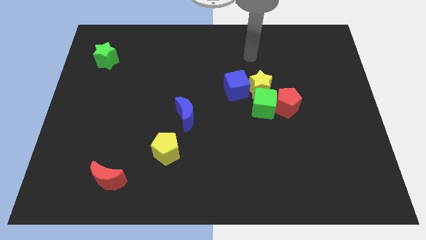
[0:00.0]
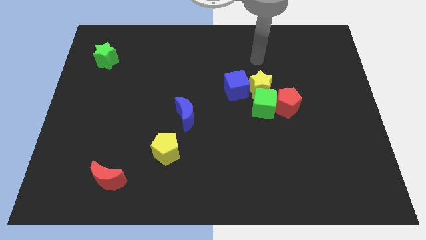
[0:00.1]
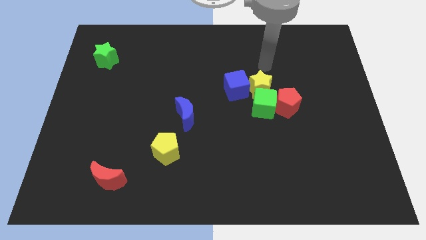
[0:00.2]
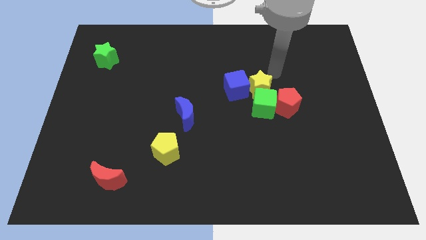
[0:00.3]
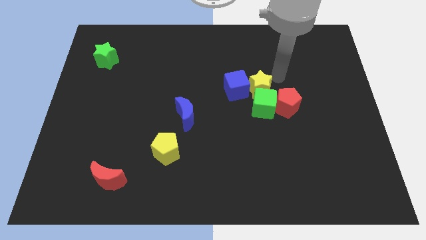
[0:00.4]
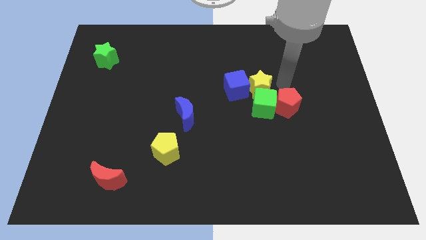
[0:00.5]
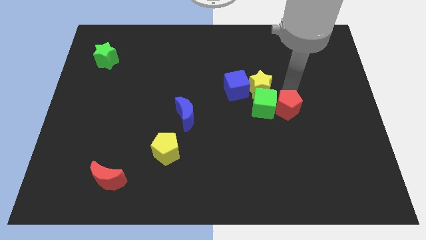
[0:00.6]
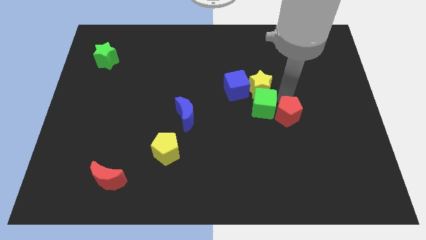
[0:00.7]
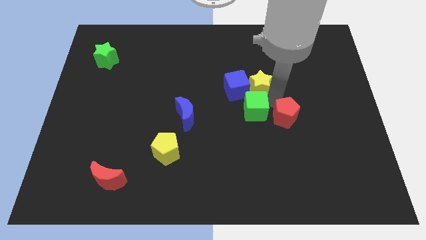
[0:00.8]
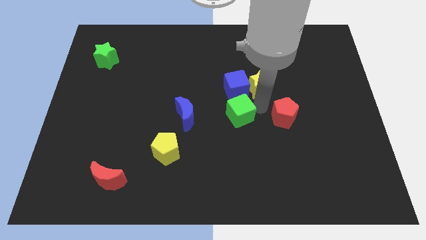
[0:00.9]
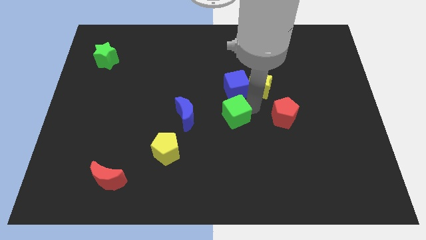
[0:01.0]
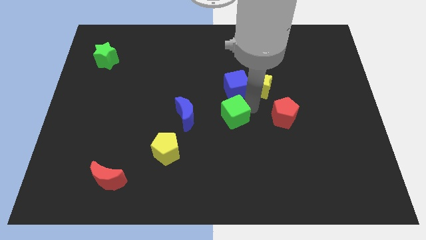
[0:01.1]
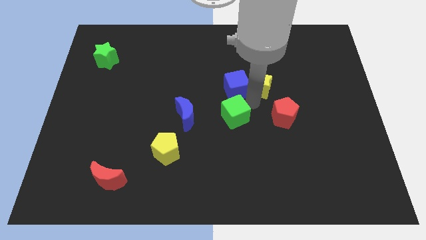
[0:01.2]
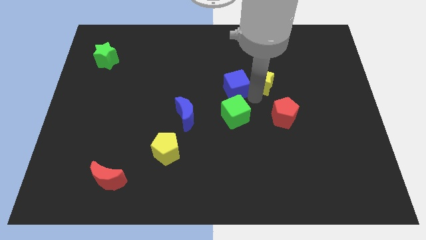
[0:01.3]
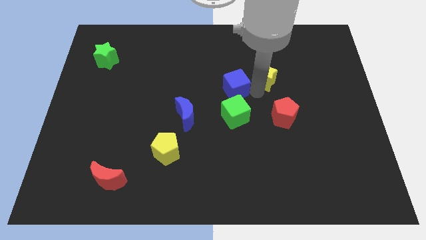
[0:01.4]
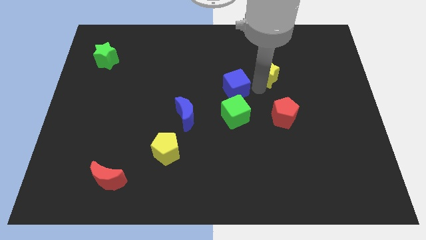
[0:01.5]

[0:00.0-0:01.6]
pull the yellow star apart from the clump

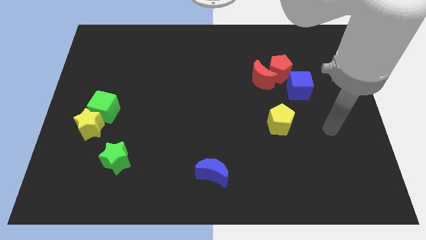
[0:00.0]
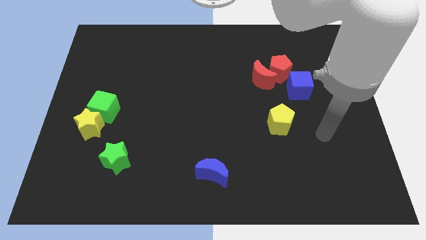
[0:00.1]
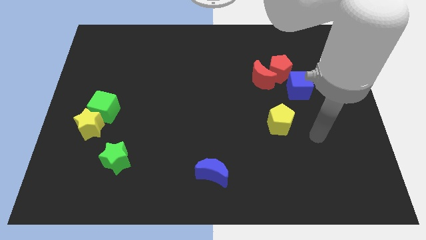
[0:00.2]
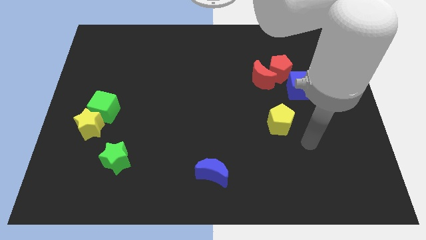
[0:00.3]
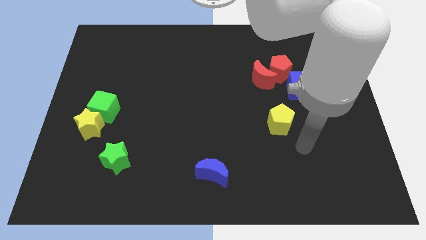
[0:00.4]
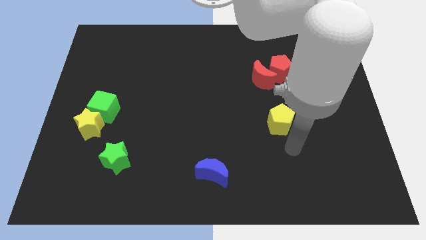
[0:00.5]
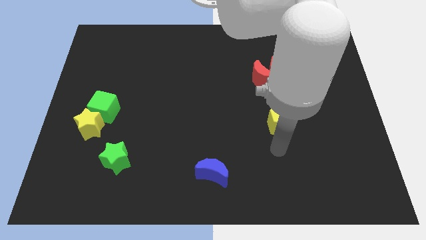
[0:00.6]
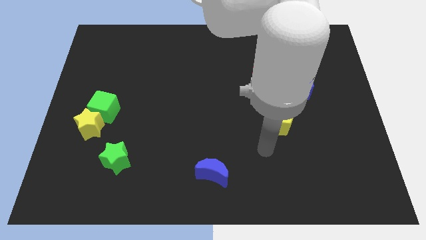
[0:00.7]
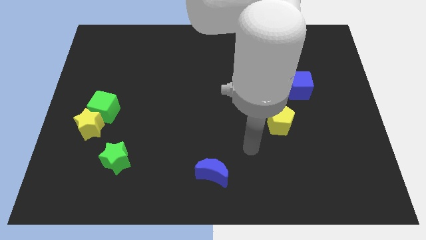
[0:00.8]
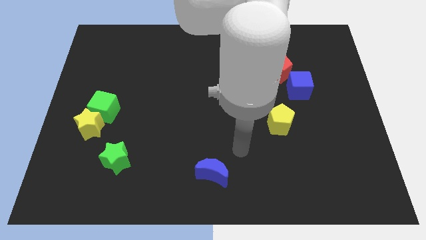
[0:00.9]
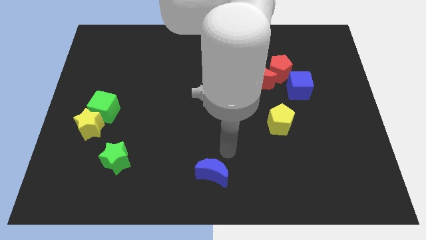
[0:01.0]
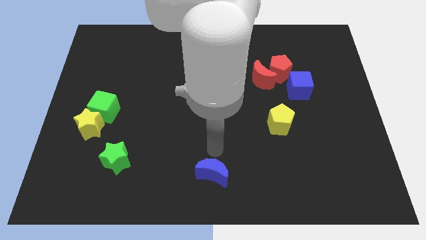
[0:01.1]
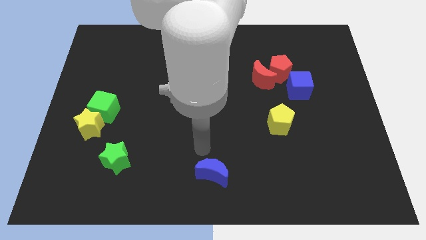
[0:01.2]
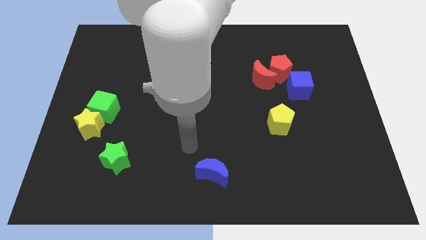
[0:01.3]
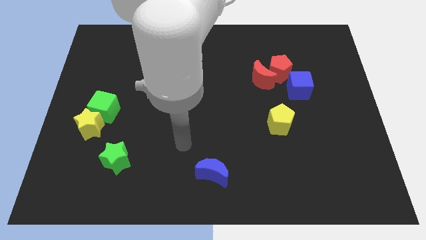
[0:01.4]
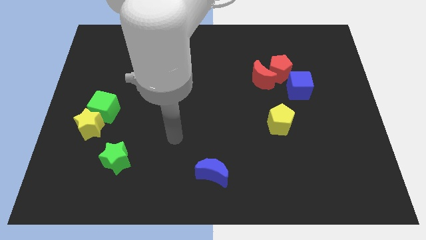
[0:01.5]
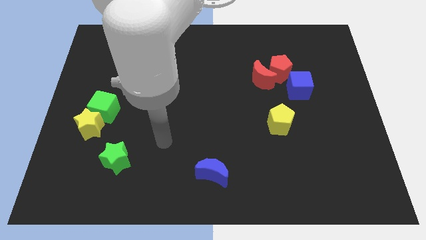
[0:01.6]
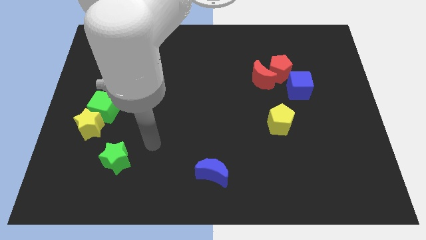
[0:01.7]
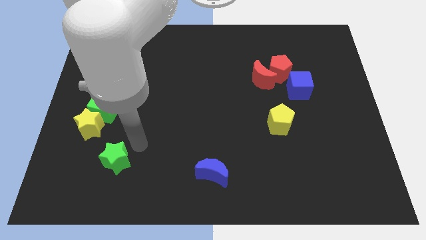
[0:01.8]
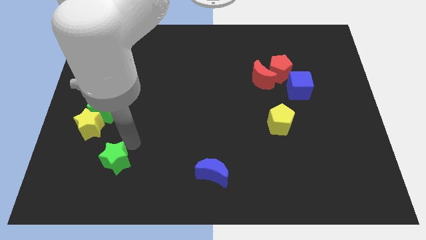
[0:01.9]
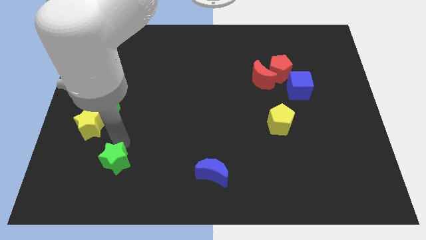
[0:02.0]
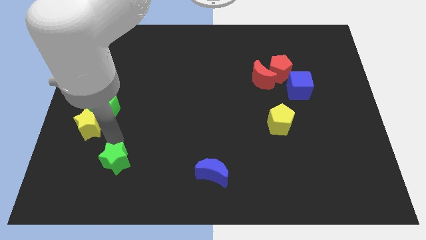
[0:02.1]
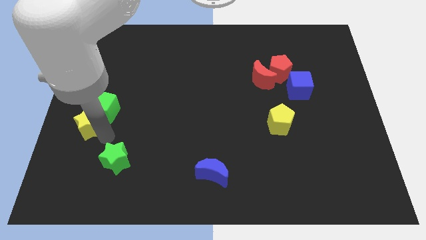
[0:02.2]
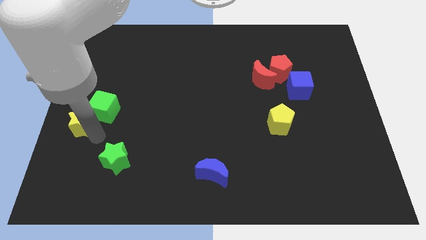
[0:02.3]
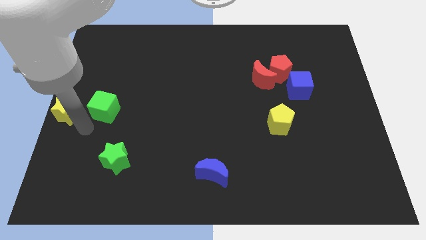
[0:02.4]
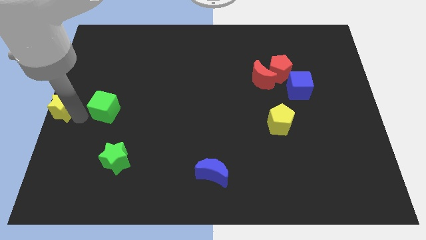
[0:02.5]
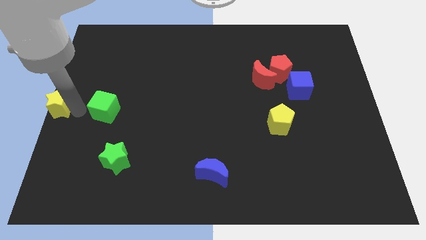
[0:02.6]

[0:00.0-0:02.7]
separate the green cube from the yellow star

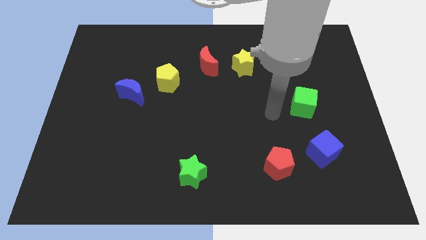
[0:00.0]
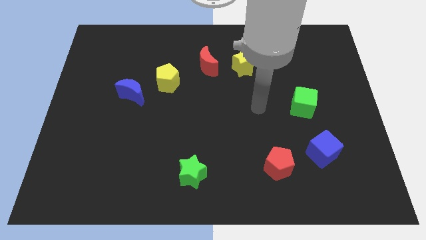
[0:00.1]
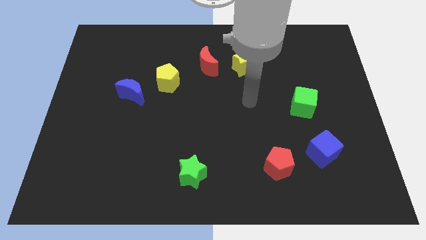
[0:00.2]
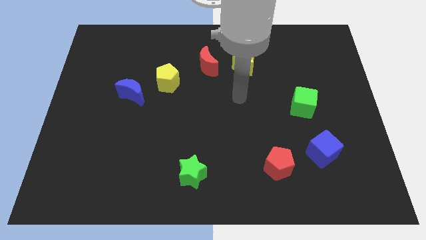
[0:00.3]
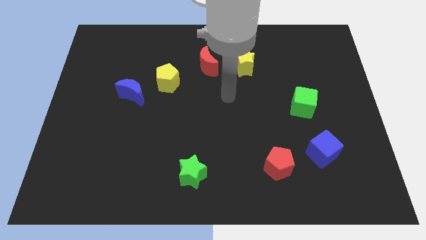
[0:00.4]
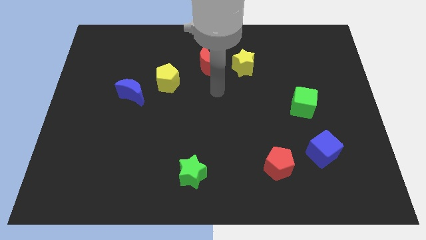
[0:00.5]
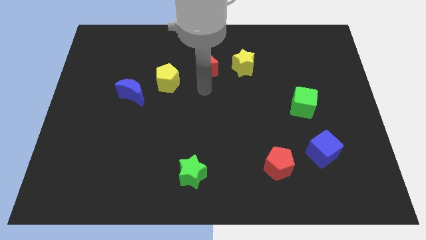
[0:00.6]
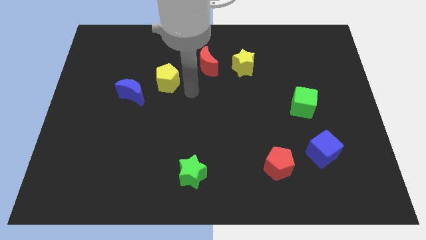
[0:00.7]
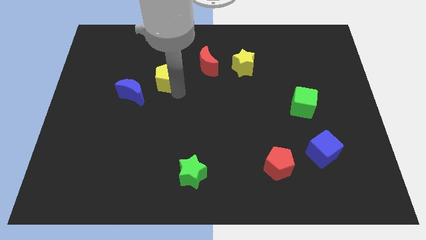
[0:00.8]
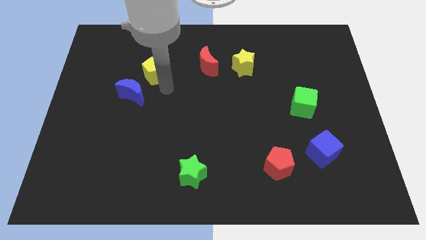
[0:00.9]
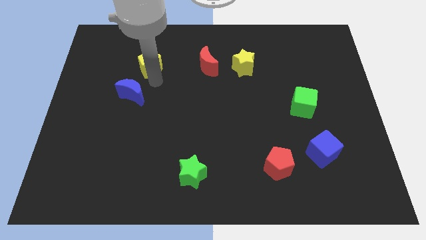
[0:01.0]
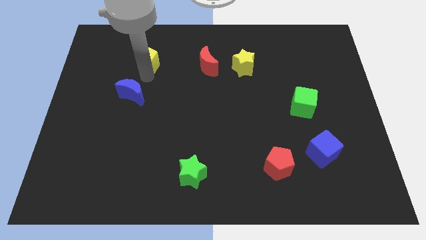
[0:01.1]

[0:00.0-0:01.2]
separate the blue moon from the yellow pentagon

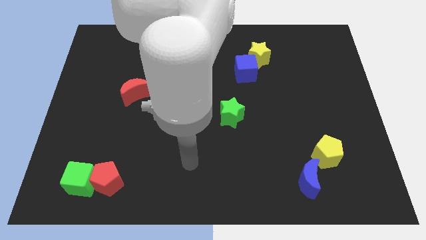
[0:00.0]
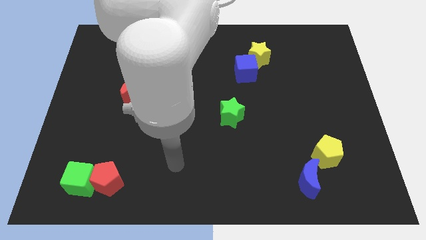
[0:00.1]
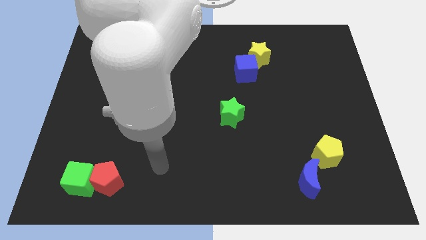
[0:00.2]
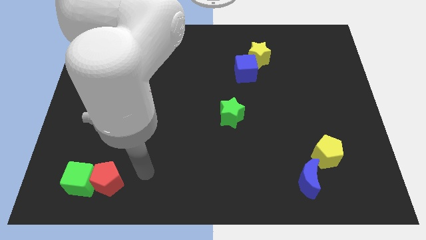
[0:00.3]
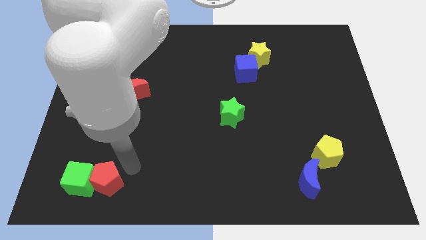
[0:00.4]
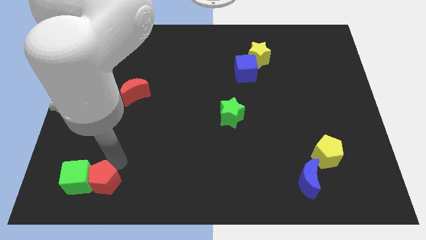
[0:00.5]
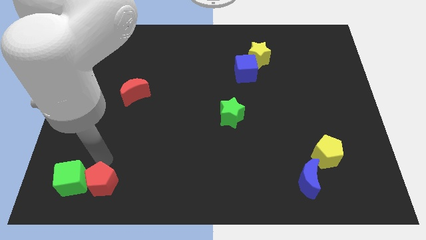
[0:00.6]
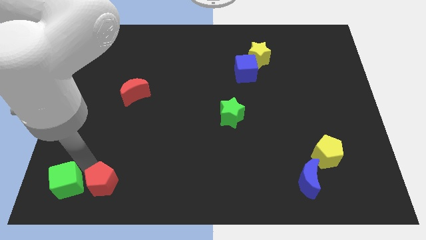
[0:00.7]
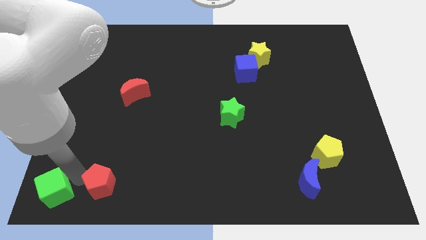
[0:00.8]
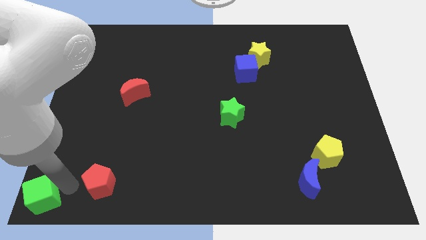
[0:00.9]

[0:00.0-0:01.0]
pull the red pentagon apart from the green cube

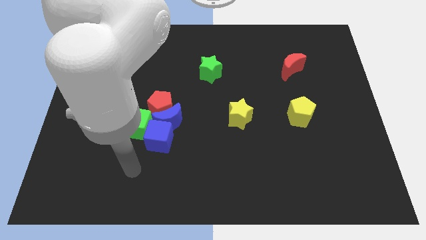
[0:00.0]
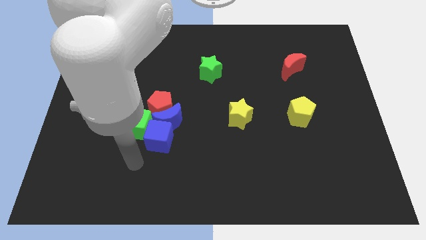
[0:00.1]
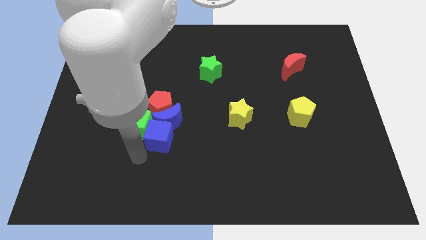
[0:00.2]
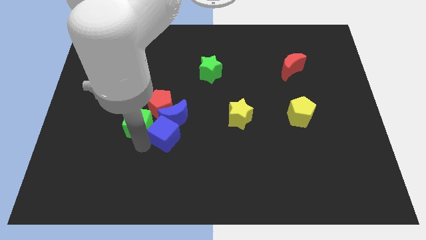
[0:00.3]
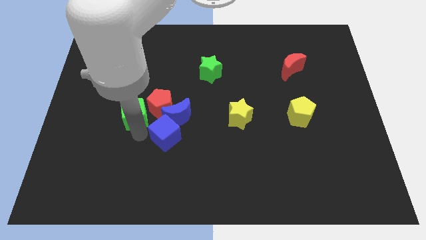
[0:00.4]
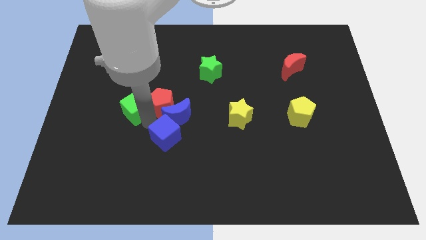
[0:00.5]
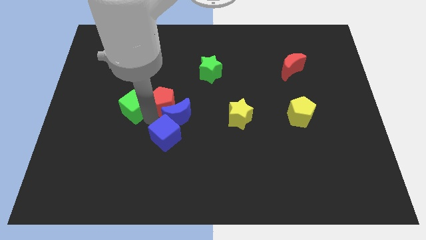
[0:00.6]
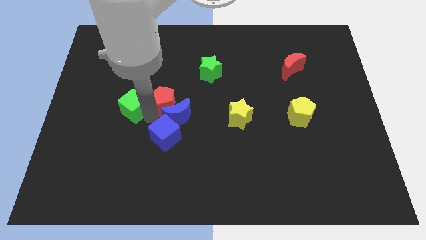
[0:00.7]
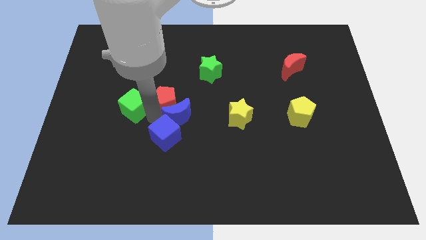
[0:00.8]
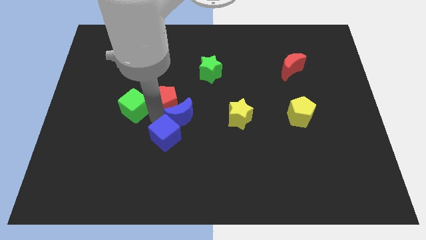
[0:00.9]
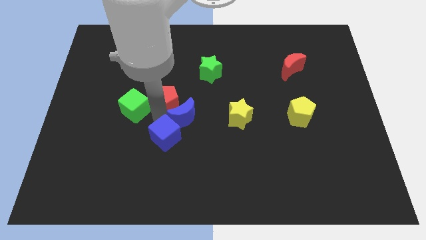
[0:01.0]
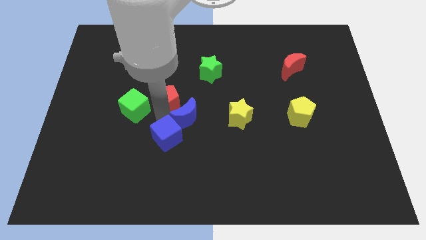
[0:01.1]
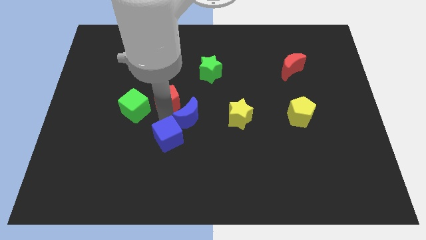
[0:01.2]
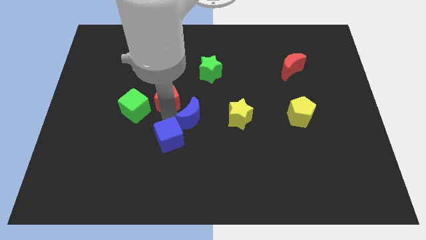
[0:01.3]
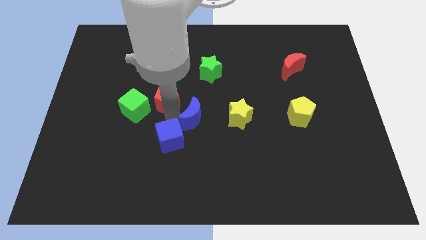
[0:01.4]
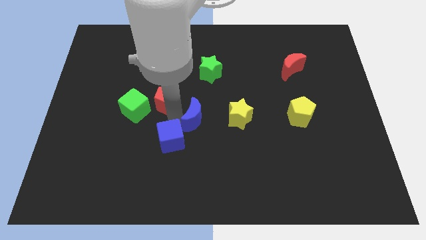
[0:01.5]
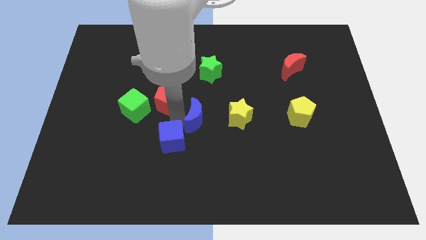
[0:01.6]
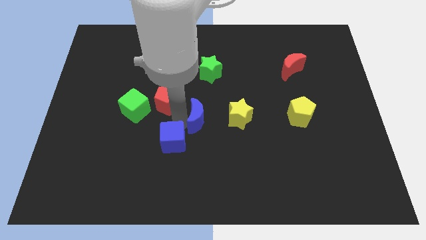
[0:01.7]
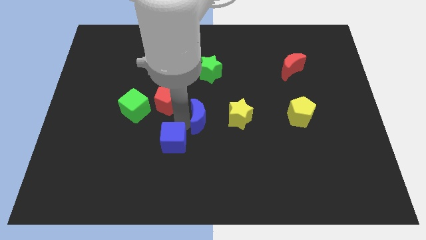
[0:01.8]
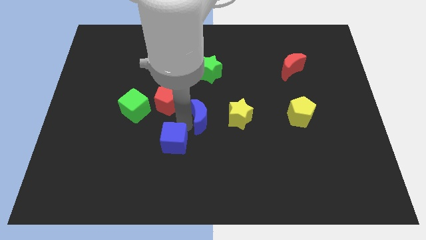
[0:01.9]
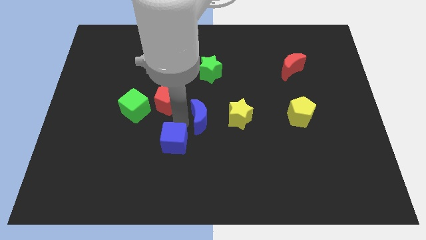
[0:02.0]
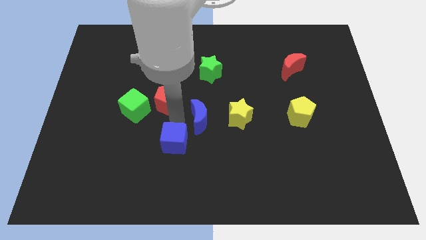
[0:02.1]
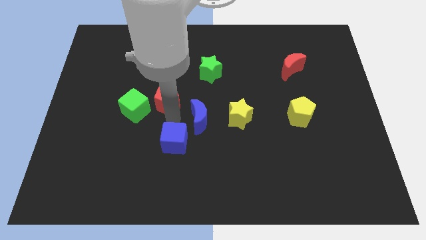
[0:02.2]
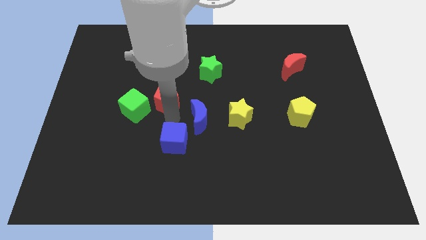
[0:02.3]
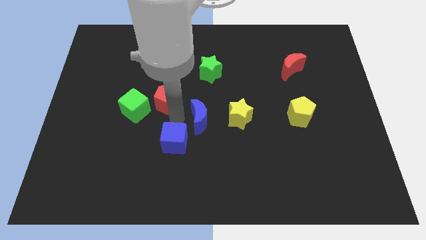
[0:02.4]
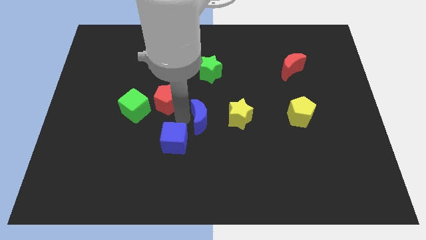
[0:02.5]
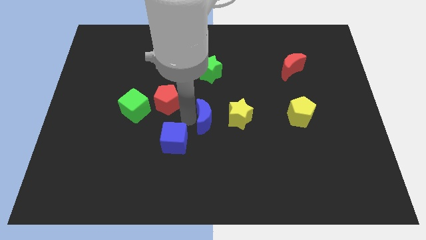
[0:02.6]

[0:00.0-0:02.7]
separate the blue moon from the group of blocks
